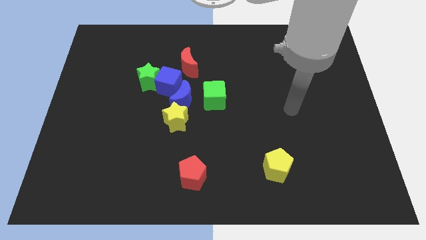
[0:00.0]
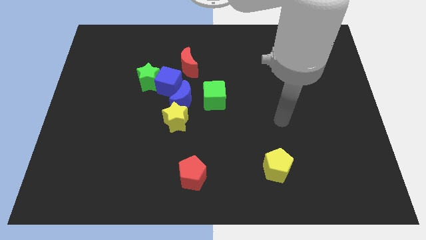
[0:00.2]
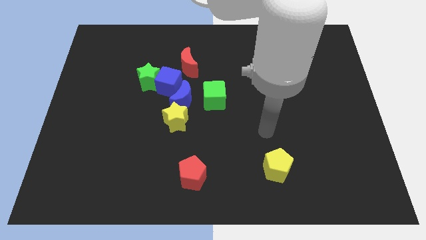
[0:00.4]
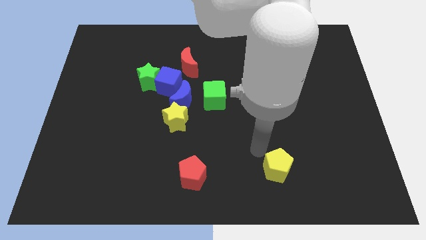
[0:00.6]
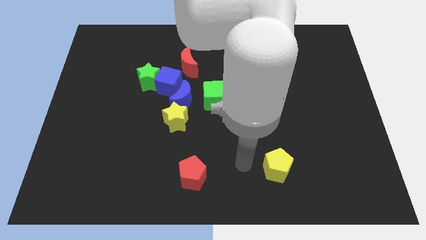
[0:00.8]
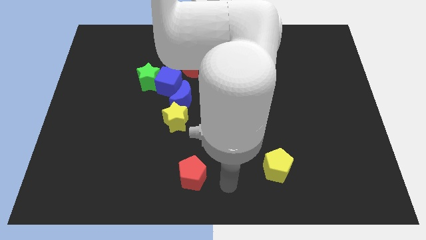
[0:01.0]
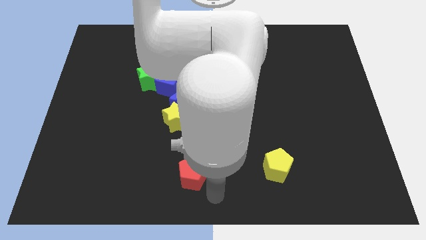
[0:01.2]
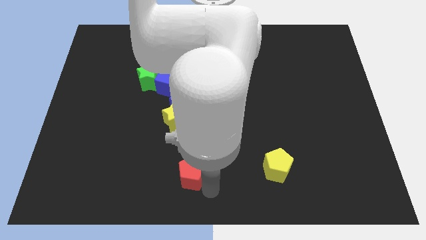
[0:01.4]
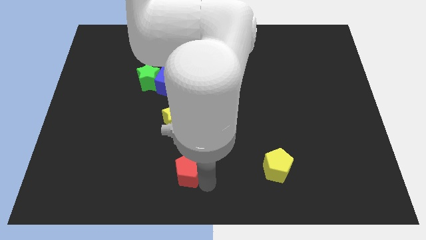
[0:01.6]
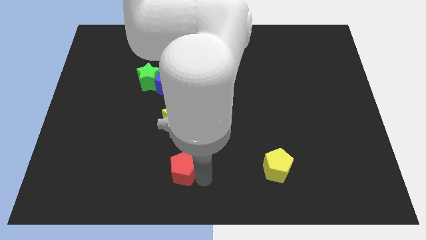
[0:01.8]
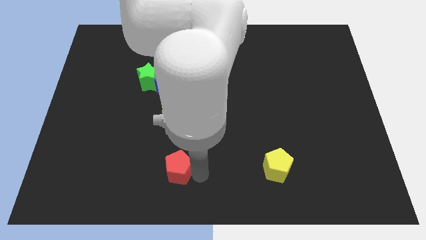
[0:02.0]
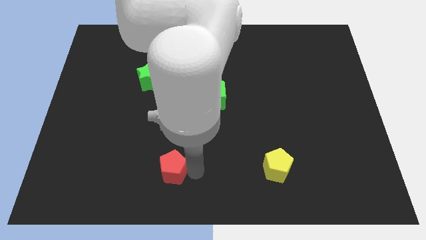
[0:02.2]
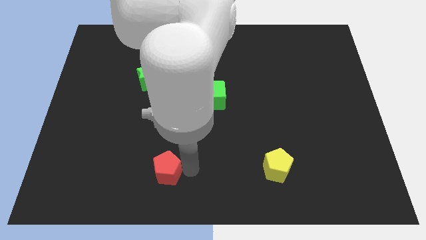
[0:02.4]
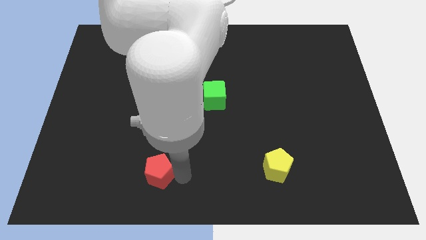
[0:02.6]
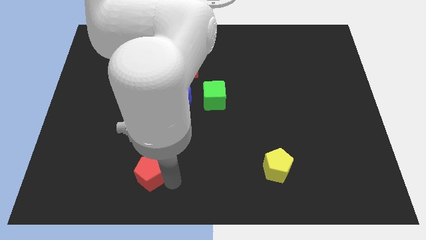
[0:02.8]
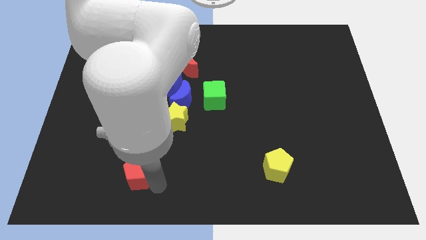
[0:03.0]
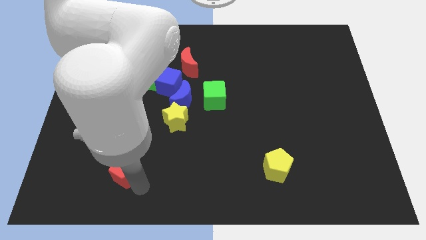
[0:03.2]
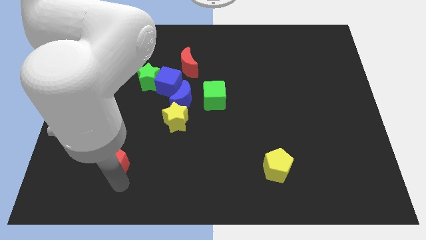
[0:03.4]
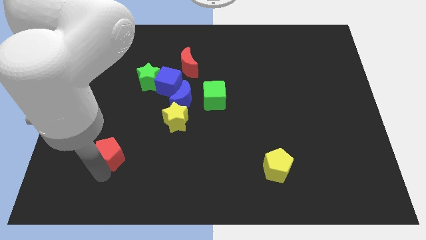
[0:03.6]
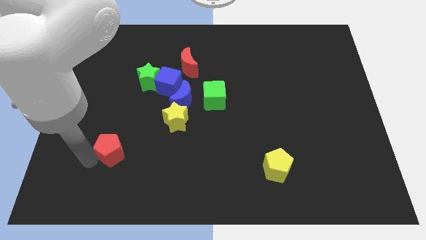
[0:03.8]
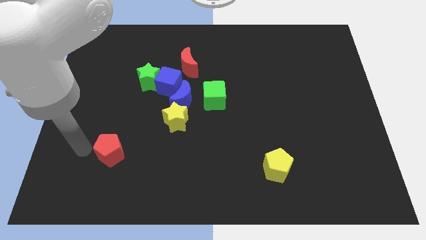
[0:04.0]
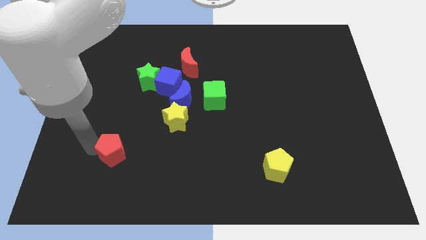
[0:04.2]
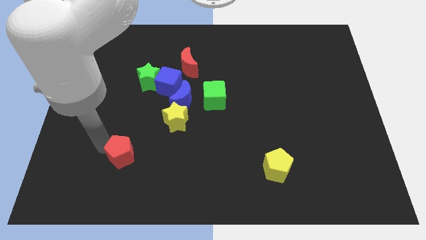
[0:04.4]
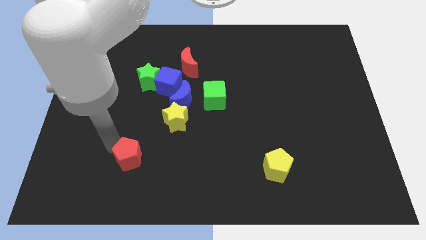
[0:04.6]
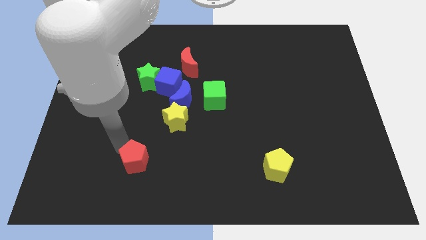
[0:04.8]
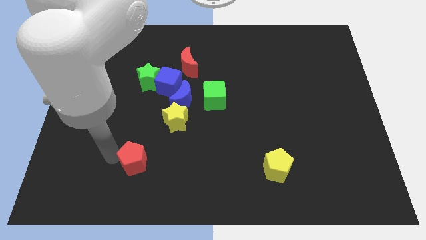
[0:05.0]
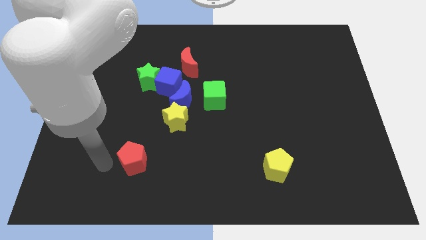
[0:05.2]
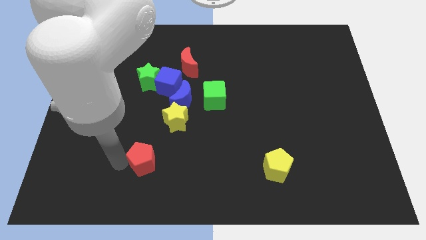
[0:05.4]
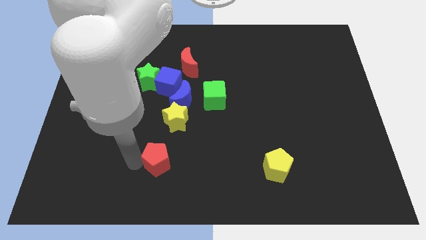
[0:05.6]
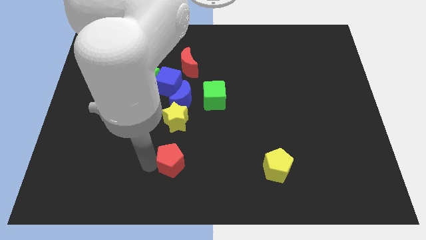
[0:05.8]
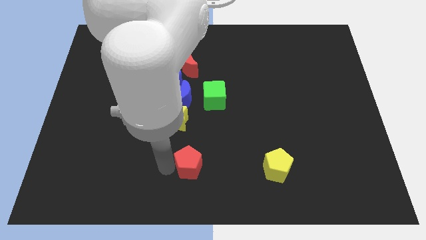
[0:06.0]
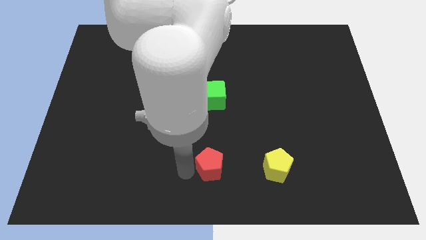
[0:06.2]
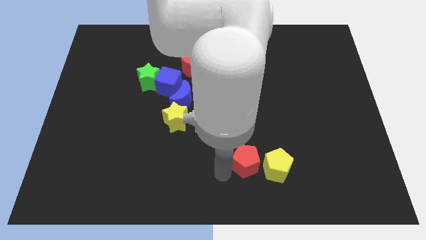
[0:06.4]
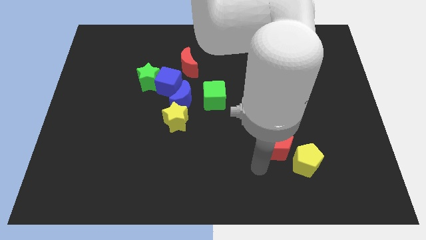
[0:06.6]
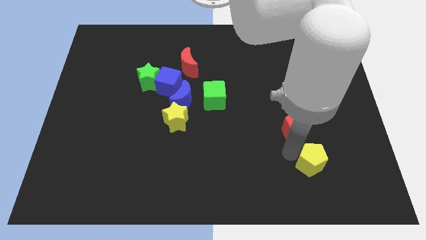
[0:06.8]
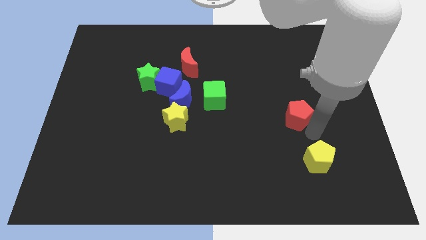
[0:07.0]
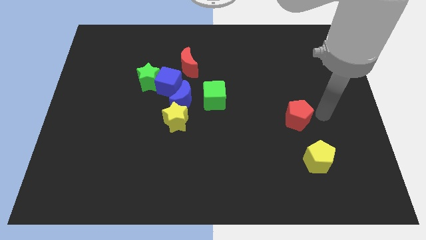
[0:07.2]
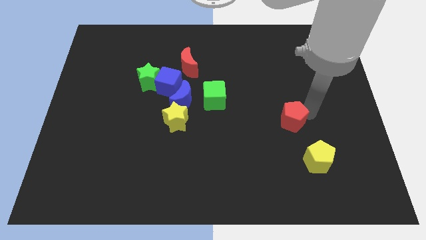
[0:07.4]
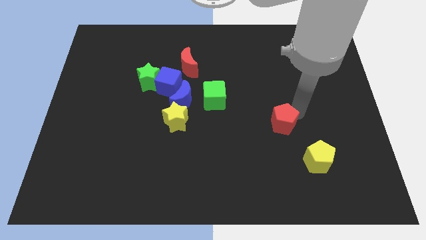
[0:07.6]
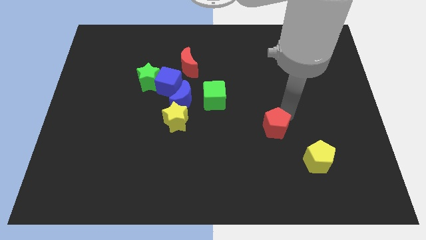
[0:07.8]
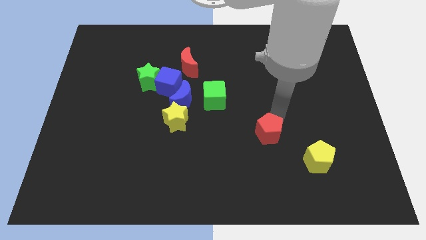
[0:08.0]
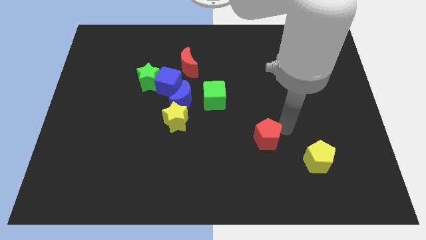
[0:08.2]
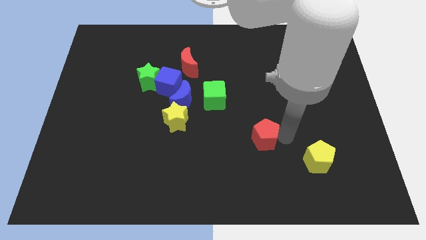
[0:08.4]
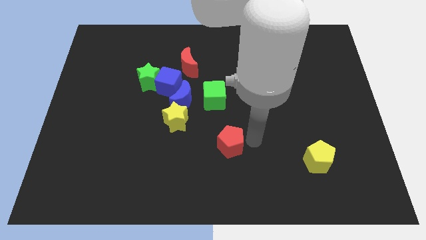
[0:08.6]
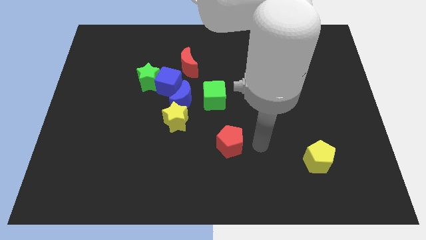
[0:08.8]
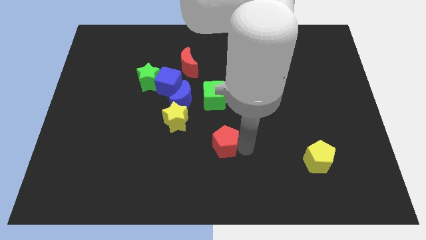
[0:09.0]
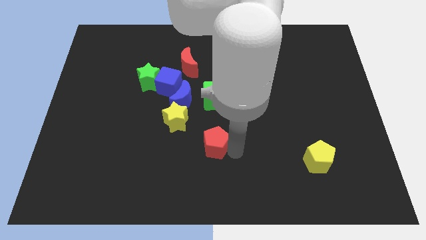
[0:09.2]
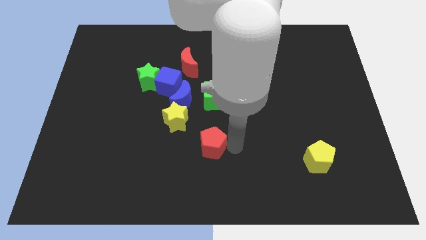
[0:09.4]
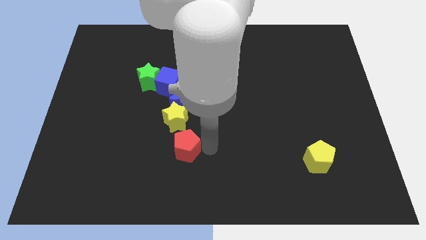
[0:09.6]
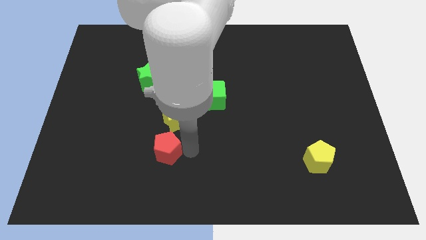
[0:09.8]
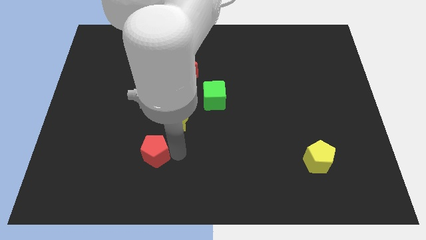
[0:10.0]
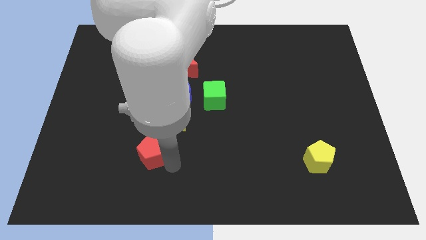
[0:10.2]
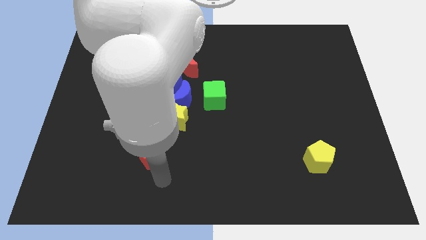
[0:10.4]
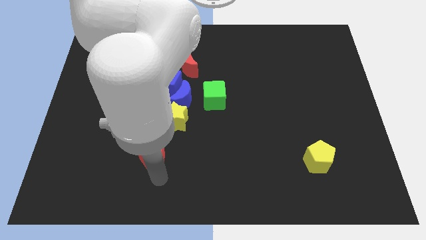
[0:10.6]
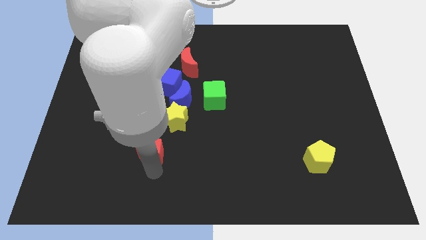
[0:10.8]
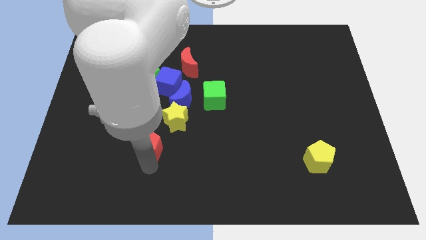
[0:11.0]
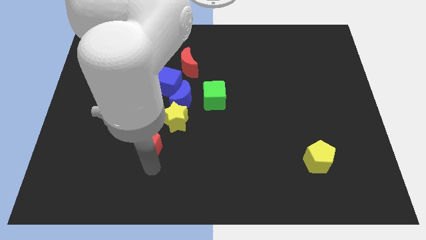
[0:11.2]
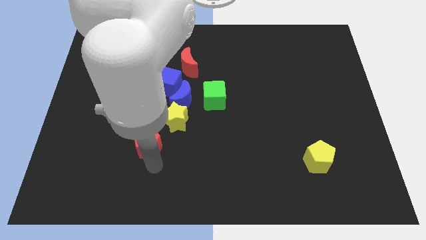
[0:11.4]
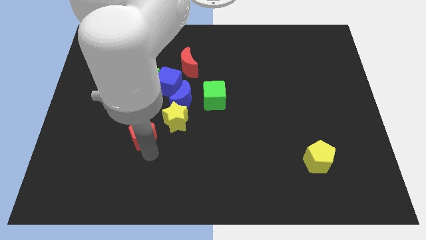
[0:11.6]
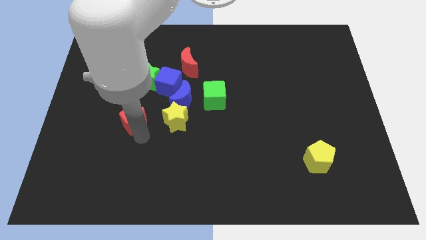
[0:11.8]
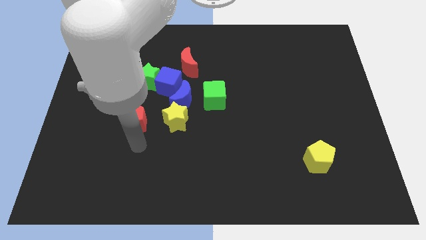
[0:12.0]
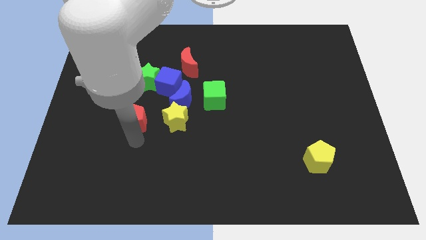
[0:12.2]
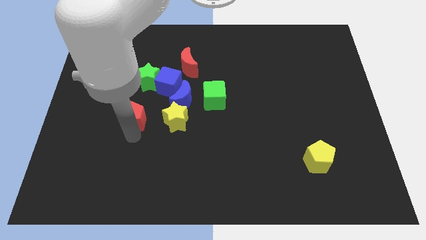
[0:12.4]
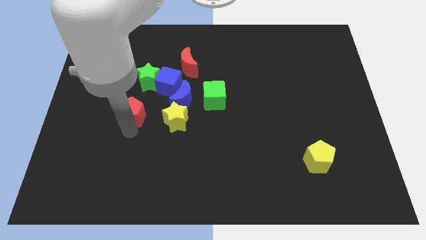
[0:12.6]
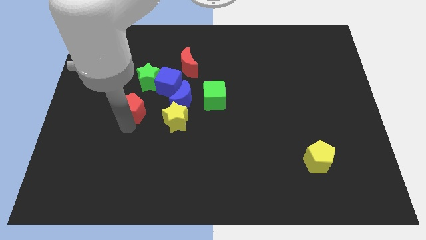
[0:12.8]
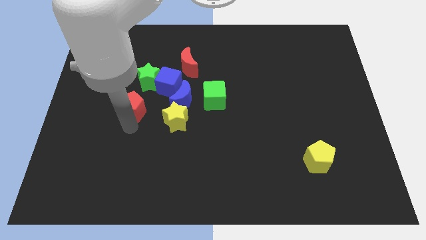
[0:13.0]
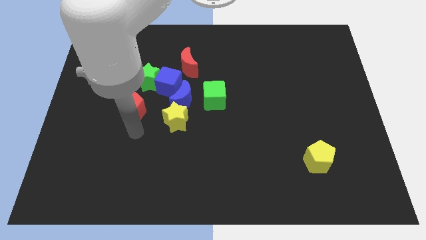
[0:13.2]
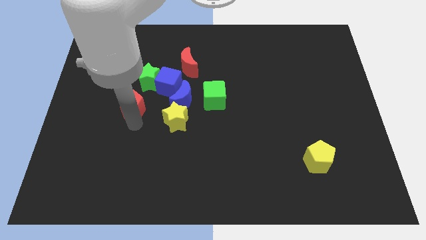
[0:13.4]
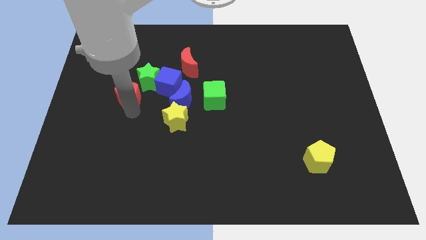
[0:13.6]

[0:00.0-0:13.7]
slide the red pentagon just left of the blue cube
